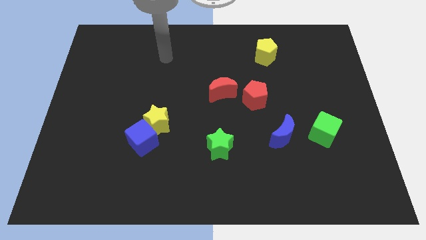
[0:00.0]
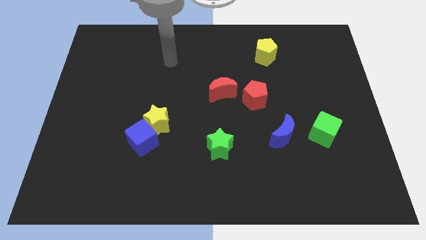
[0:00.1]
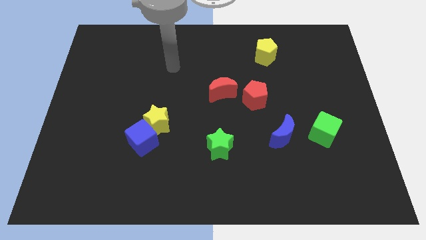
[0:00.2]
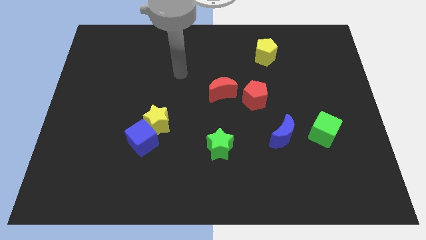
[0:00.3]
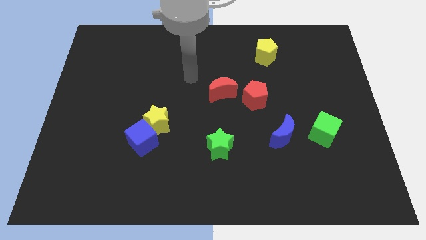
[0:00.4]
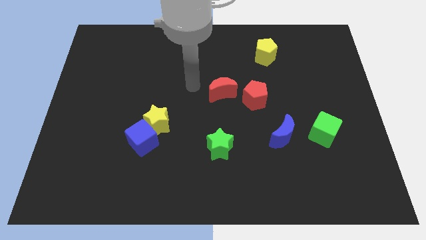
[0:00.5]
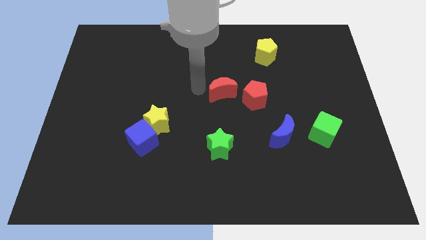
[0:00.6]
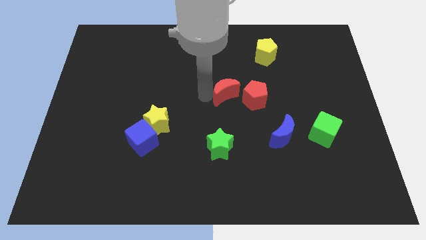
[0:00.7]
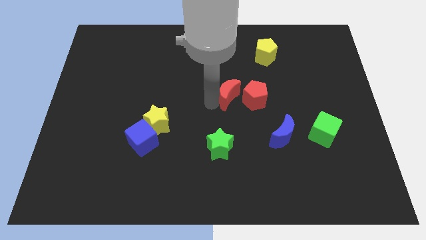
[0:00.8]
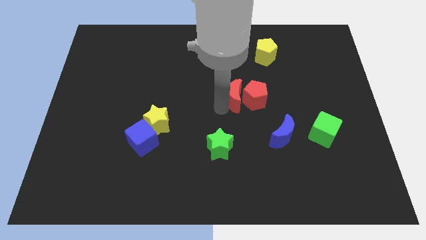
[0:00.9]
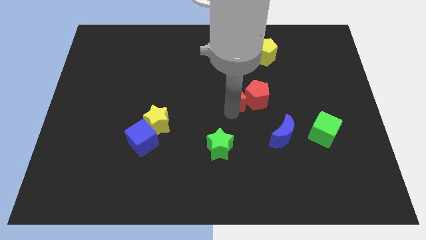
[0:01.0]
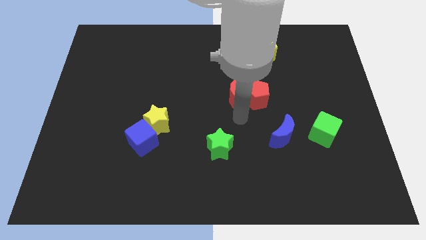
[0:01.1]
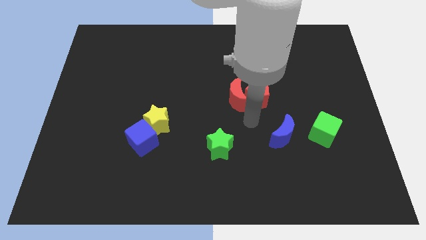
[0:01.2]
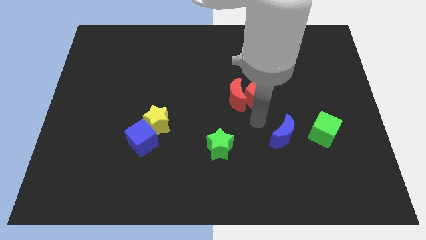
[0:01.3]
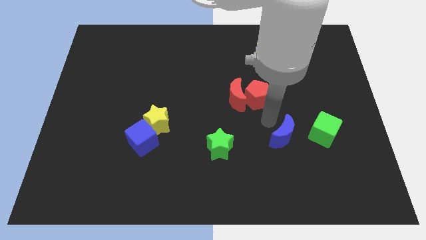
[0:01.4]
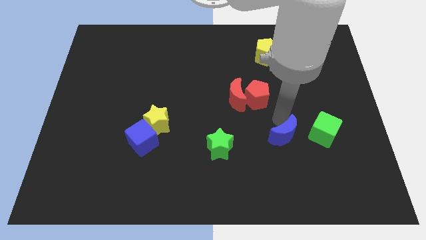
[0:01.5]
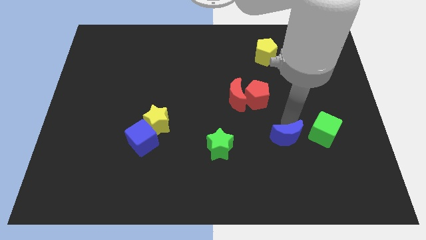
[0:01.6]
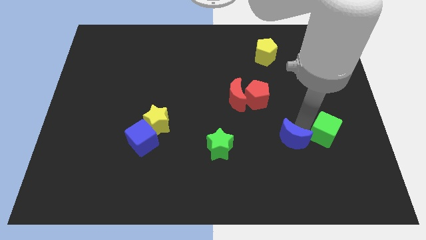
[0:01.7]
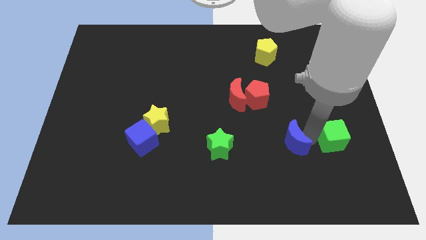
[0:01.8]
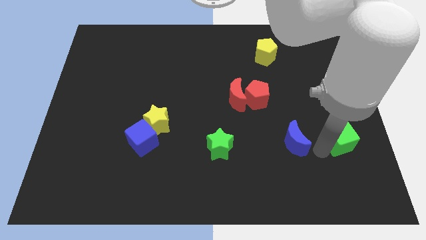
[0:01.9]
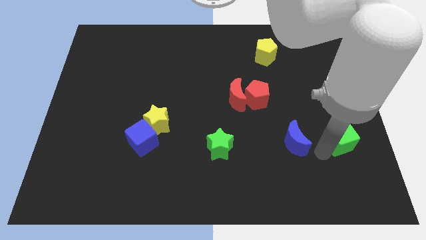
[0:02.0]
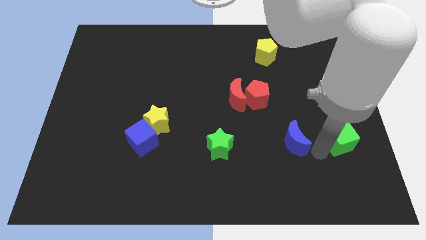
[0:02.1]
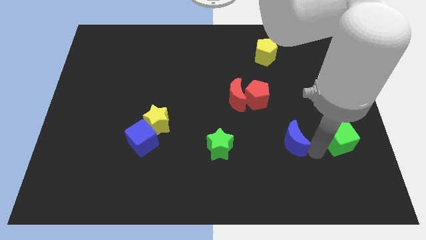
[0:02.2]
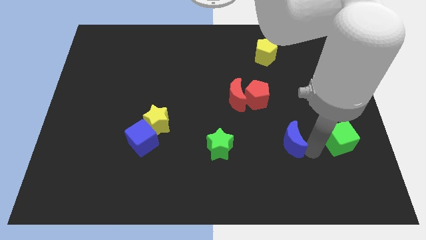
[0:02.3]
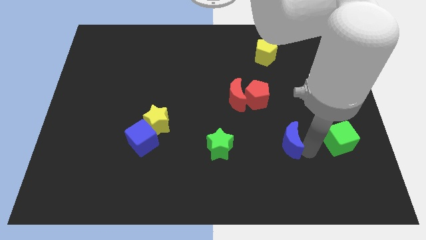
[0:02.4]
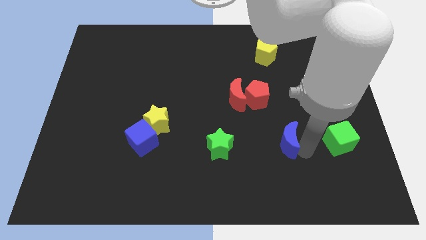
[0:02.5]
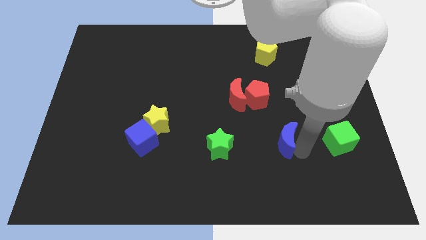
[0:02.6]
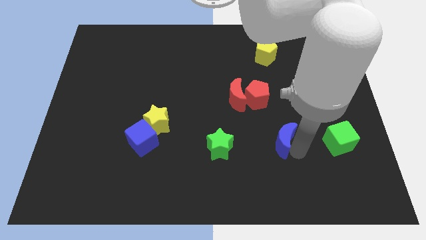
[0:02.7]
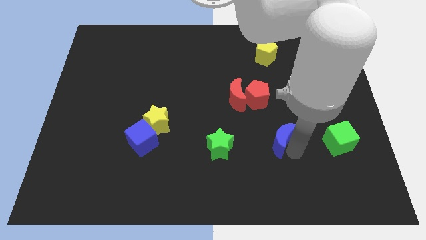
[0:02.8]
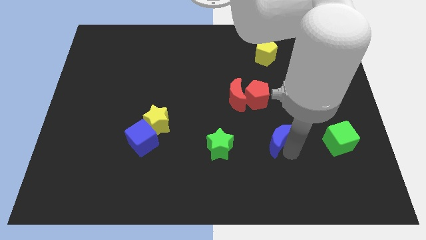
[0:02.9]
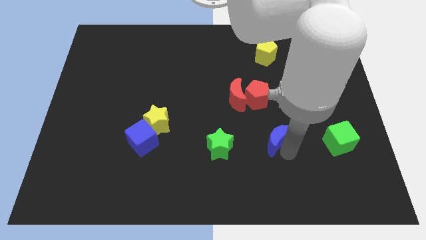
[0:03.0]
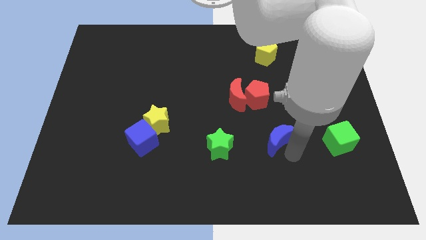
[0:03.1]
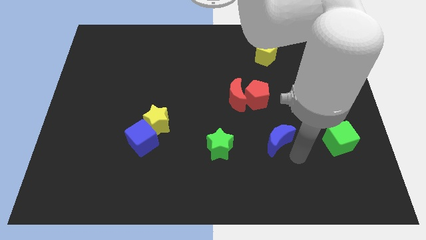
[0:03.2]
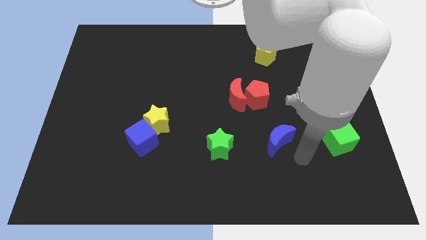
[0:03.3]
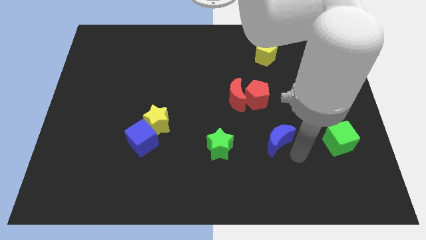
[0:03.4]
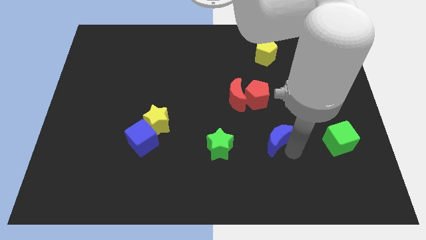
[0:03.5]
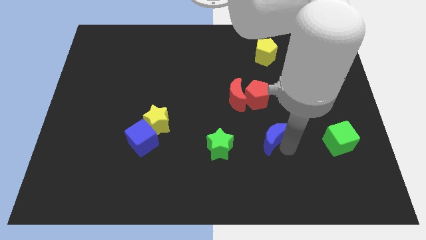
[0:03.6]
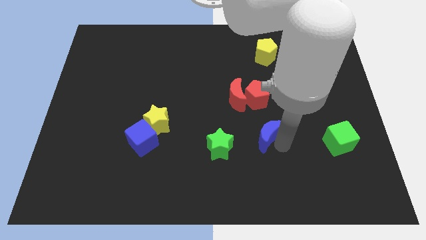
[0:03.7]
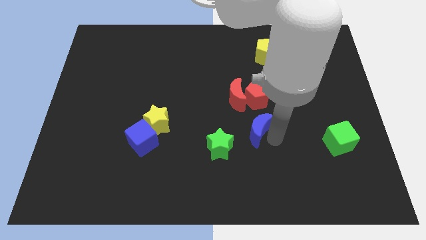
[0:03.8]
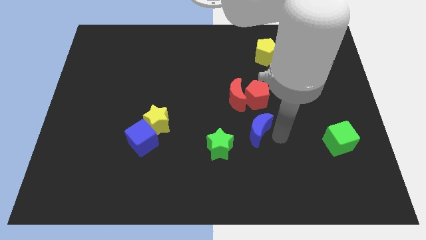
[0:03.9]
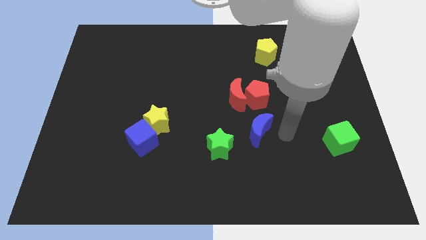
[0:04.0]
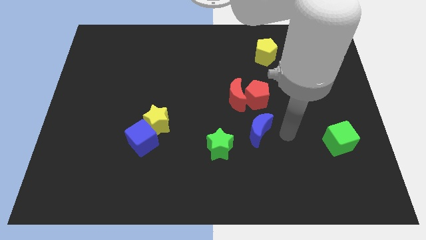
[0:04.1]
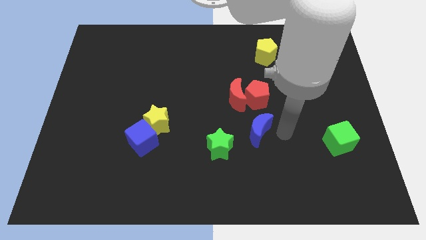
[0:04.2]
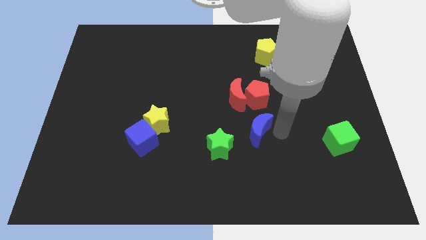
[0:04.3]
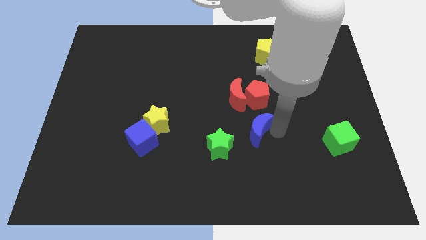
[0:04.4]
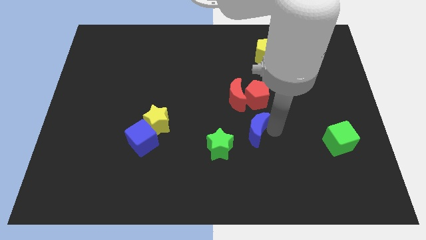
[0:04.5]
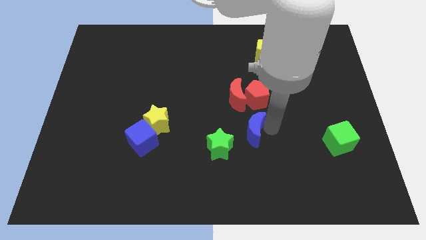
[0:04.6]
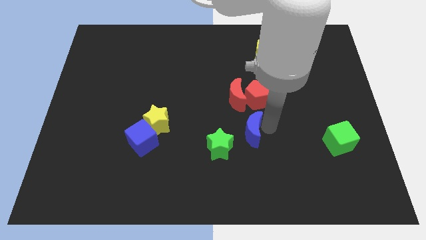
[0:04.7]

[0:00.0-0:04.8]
slide the blue moon a little left

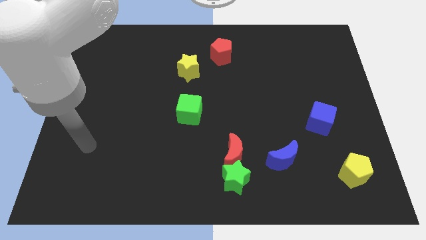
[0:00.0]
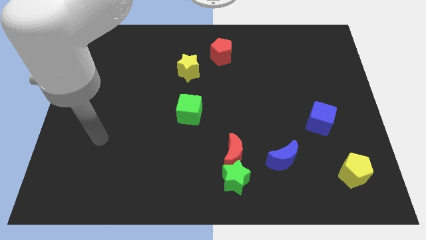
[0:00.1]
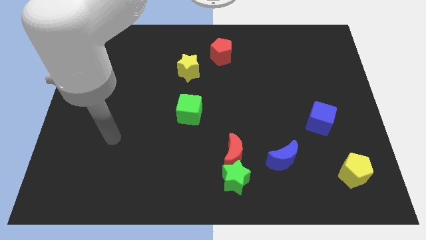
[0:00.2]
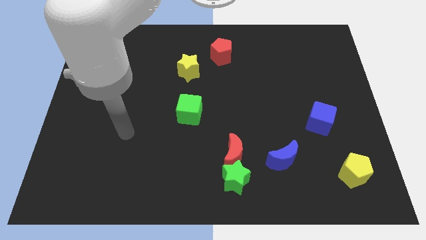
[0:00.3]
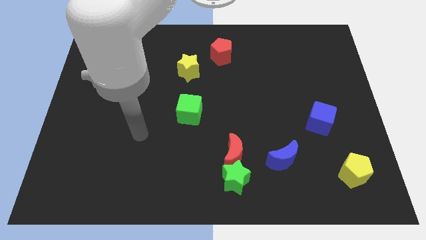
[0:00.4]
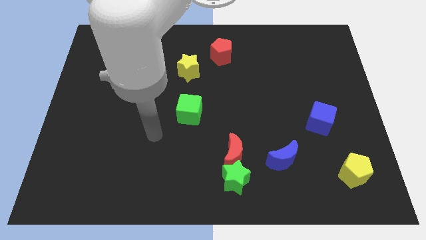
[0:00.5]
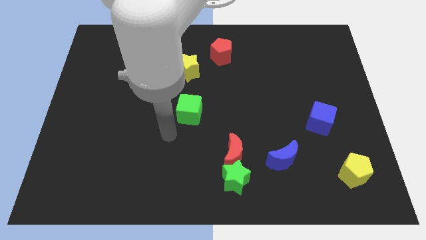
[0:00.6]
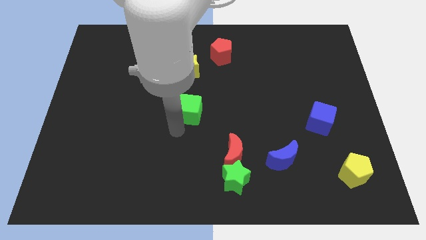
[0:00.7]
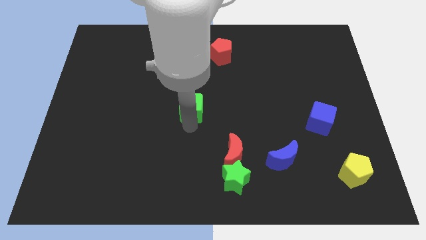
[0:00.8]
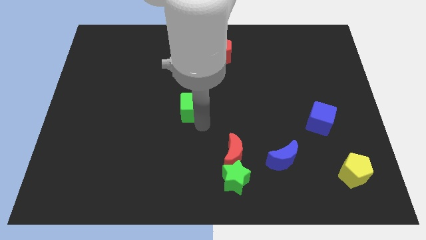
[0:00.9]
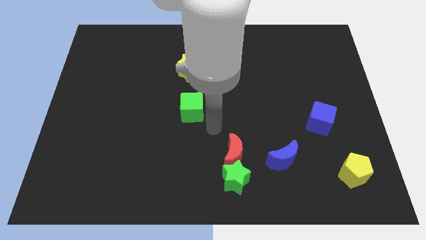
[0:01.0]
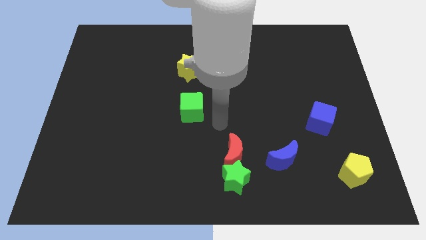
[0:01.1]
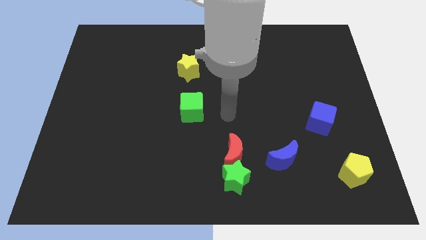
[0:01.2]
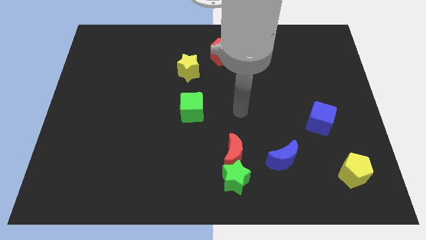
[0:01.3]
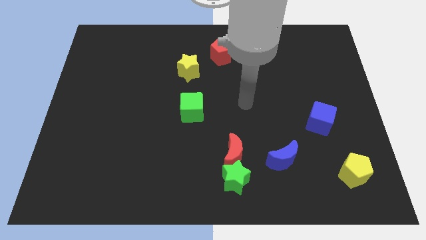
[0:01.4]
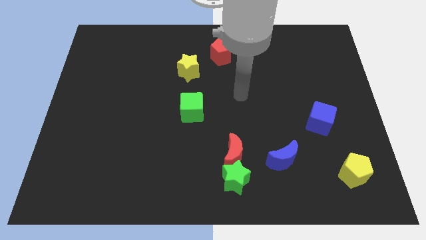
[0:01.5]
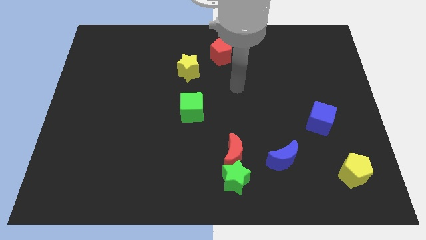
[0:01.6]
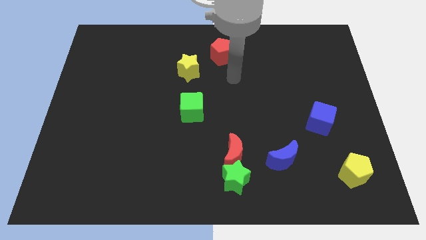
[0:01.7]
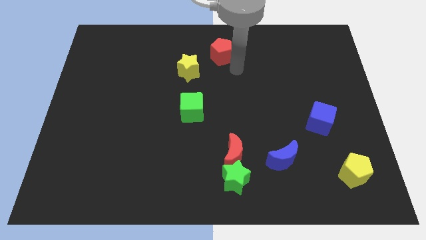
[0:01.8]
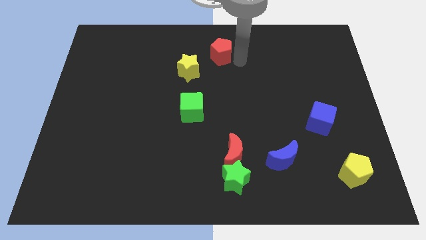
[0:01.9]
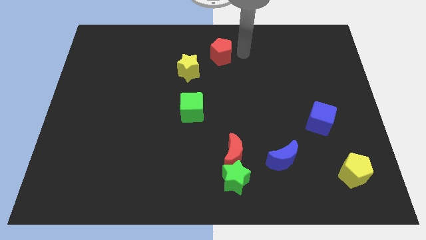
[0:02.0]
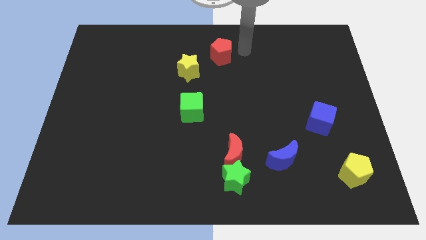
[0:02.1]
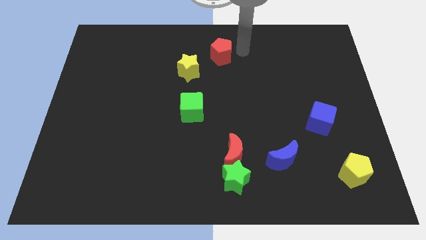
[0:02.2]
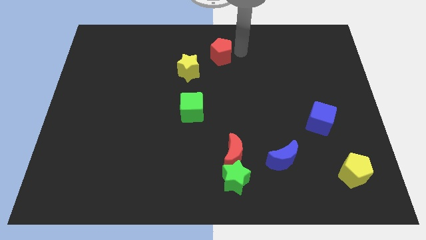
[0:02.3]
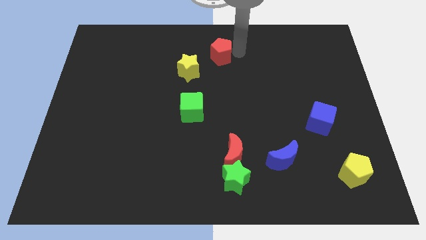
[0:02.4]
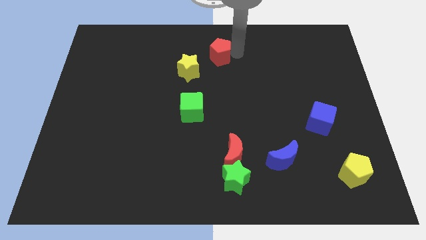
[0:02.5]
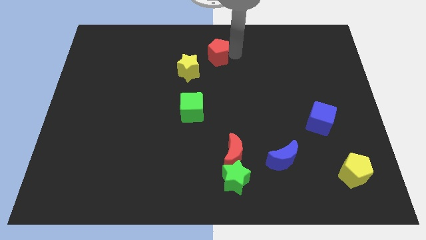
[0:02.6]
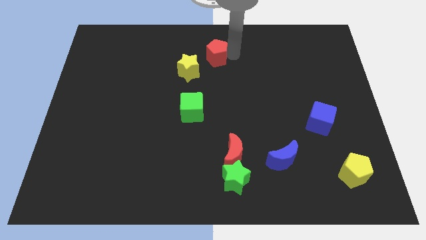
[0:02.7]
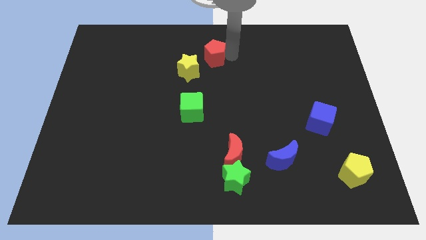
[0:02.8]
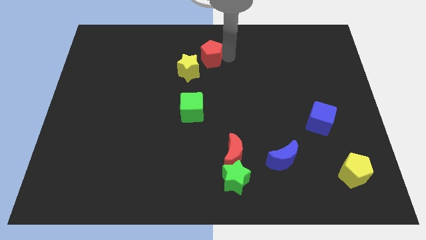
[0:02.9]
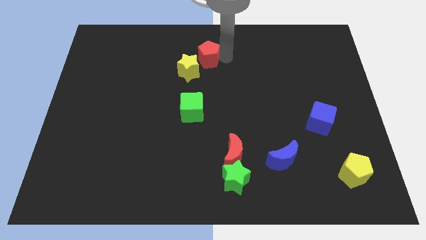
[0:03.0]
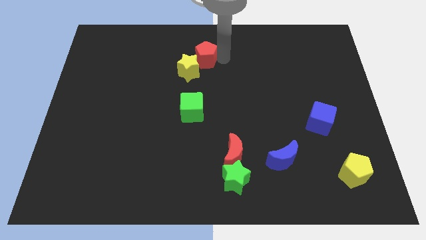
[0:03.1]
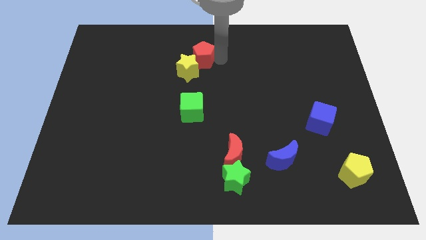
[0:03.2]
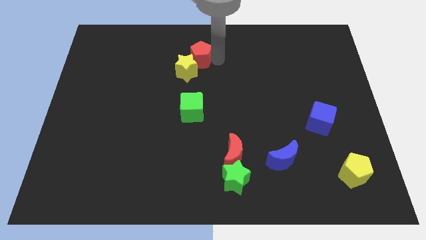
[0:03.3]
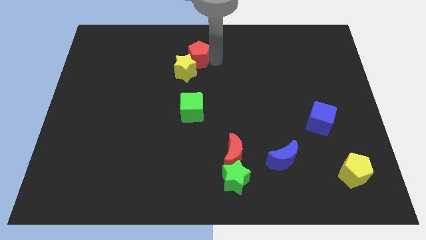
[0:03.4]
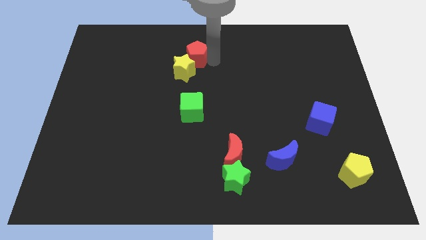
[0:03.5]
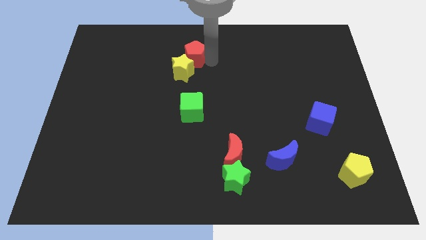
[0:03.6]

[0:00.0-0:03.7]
slide the red pentagon a little bit left
